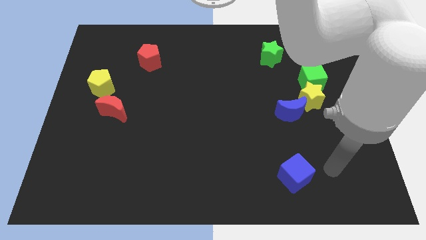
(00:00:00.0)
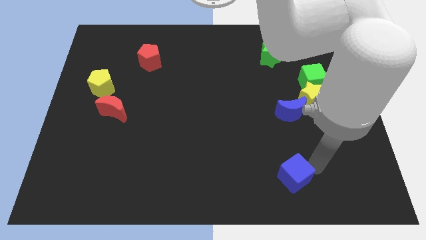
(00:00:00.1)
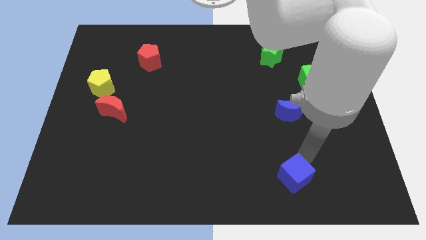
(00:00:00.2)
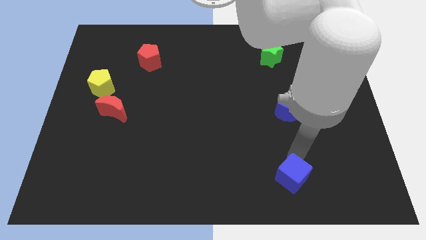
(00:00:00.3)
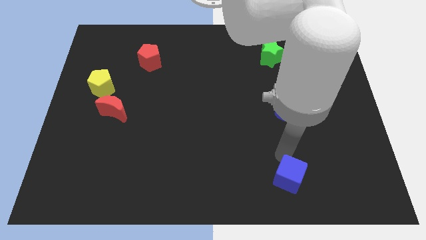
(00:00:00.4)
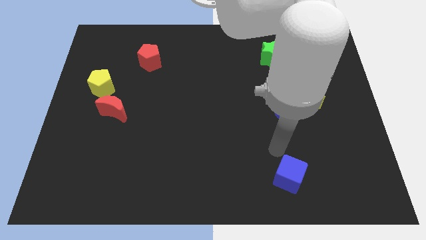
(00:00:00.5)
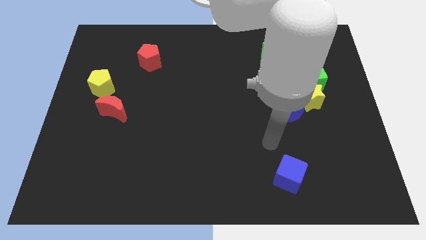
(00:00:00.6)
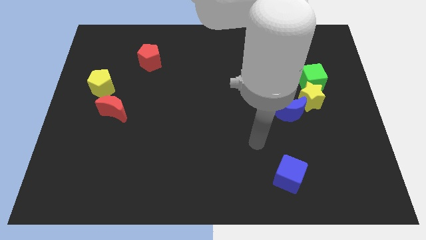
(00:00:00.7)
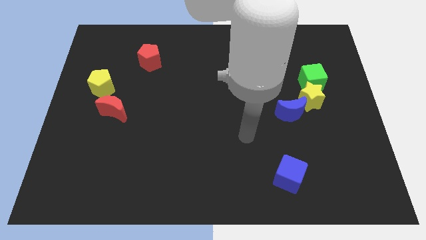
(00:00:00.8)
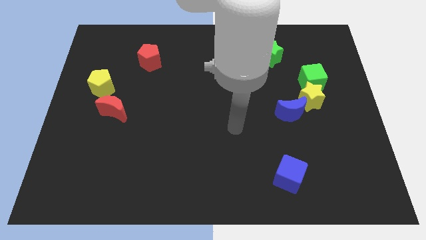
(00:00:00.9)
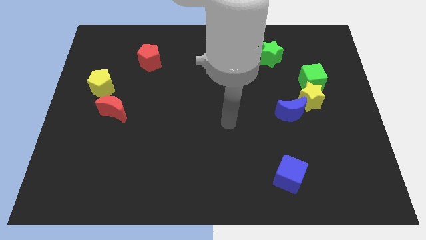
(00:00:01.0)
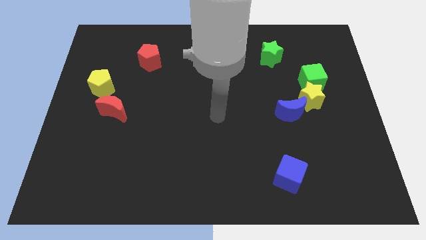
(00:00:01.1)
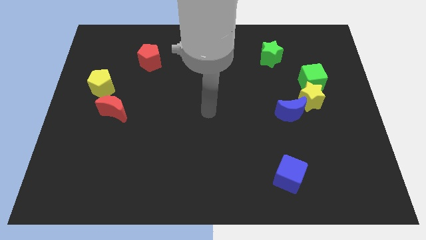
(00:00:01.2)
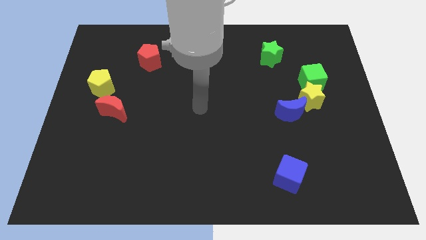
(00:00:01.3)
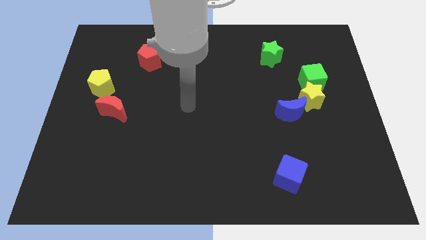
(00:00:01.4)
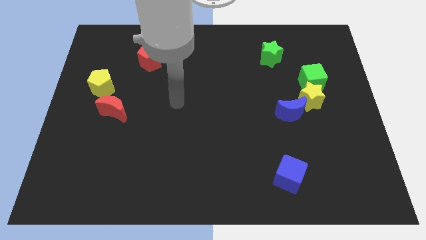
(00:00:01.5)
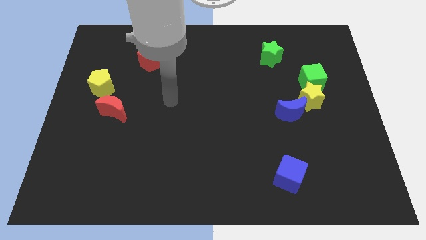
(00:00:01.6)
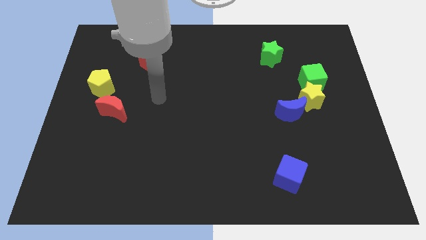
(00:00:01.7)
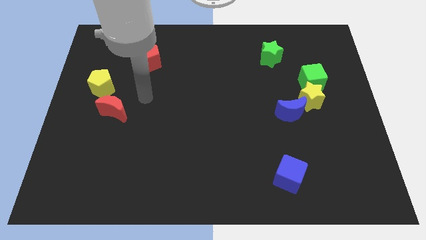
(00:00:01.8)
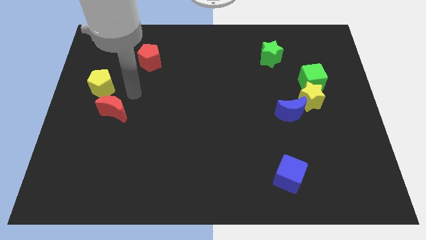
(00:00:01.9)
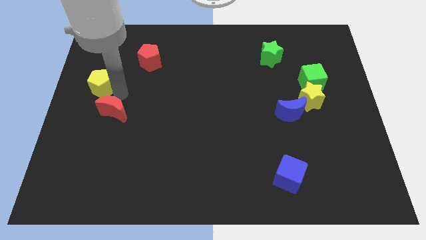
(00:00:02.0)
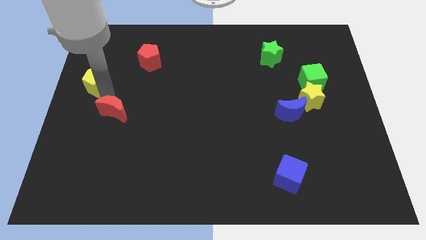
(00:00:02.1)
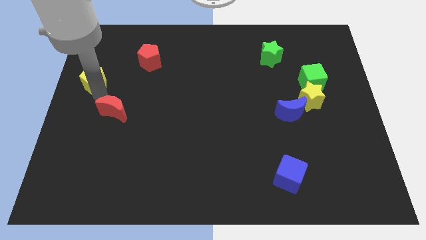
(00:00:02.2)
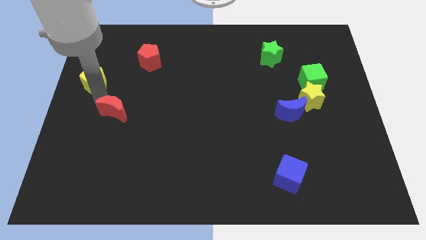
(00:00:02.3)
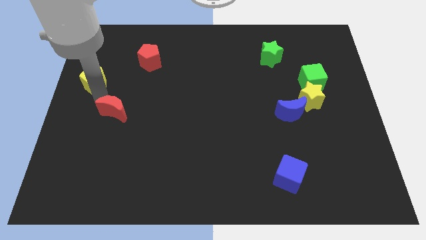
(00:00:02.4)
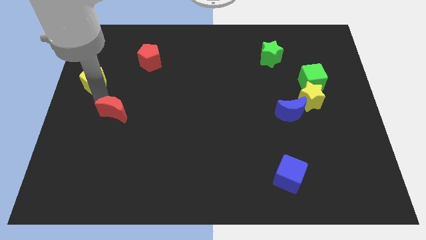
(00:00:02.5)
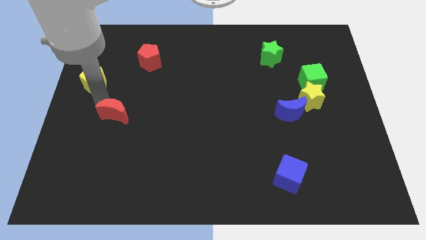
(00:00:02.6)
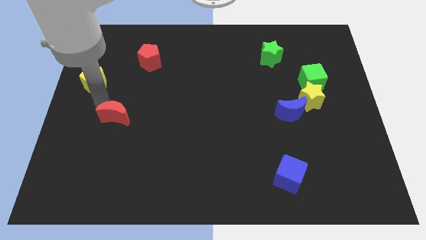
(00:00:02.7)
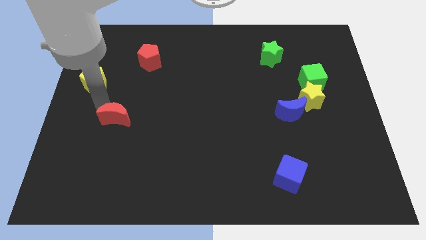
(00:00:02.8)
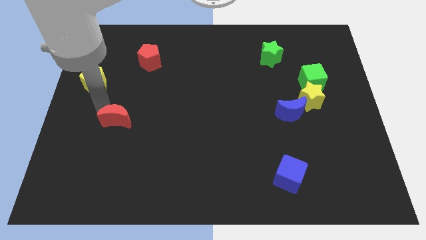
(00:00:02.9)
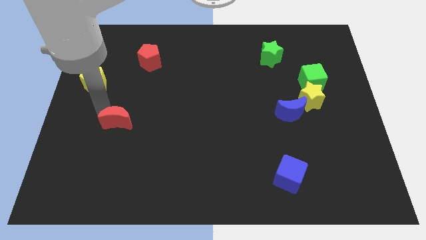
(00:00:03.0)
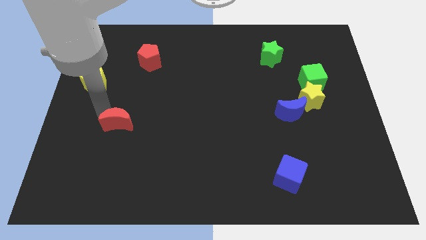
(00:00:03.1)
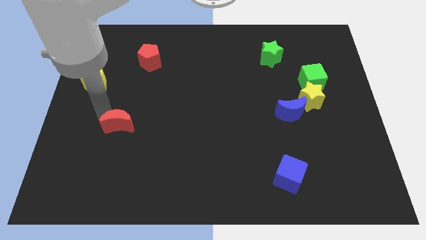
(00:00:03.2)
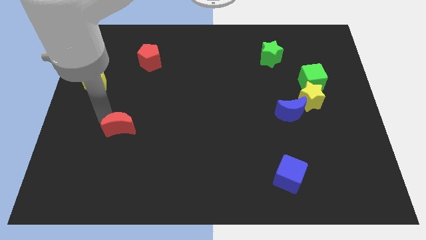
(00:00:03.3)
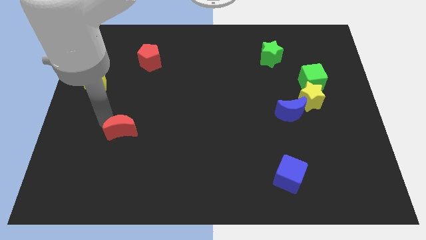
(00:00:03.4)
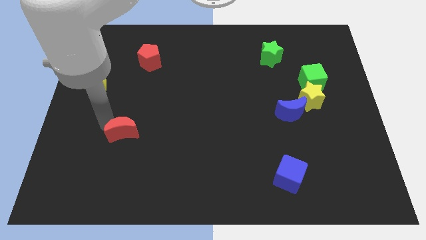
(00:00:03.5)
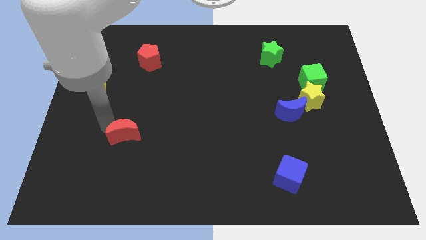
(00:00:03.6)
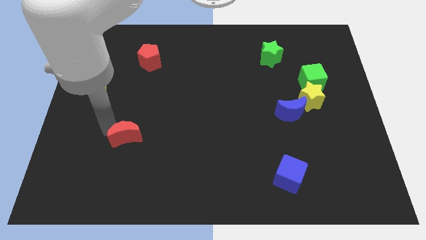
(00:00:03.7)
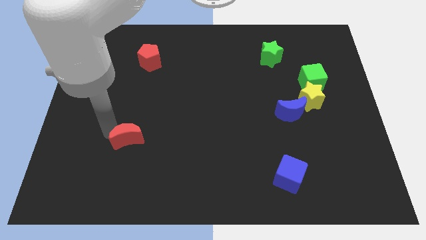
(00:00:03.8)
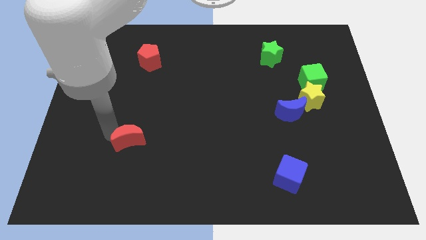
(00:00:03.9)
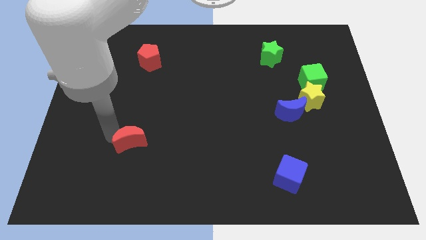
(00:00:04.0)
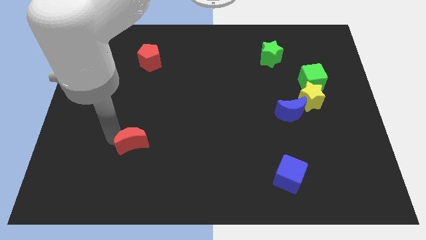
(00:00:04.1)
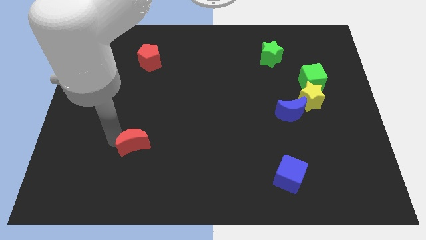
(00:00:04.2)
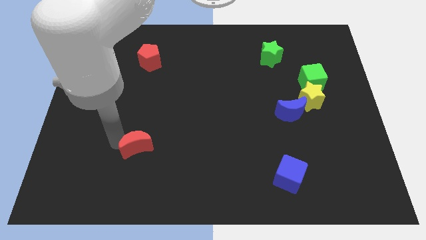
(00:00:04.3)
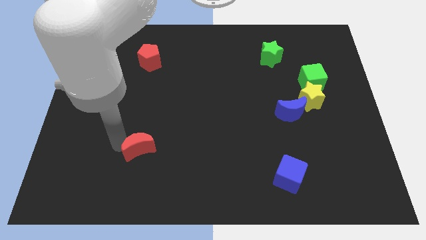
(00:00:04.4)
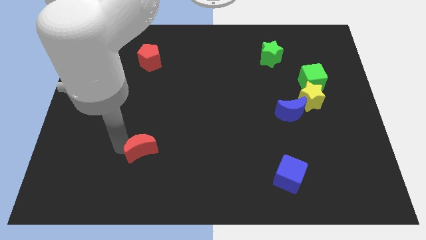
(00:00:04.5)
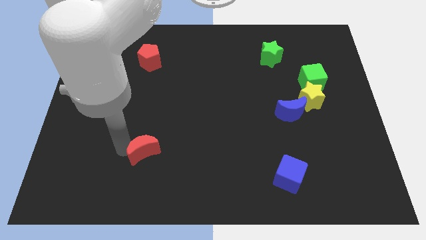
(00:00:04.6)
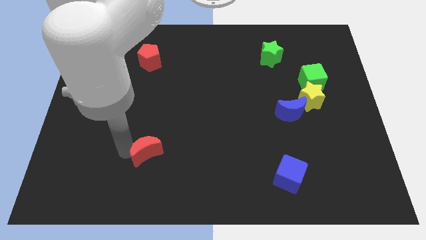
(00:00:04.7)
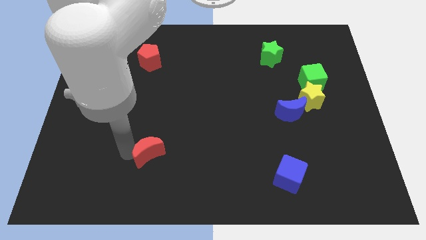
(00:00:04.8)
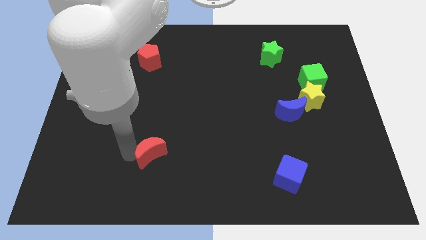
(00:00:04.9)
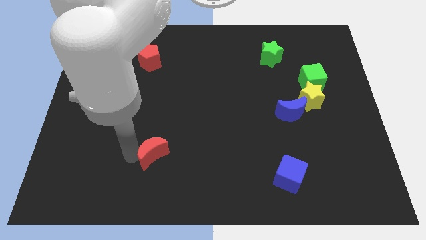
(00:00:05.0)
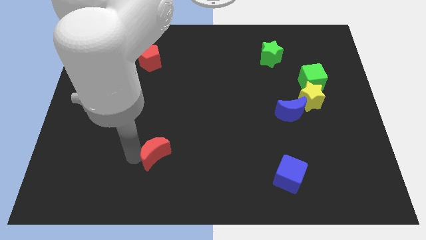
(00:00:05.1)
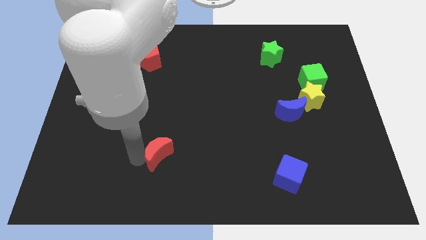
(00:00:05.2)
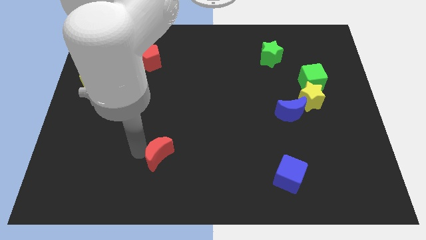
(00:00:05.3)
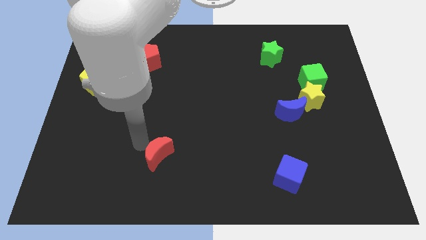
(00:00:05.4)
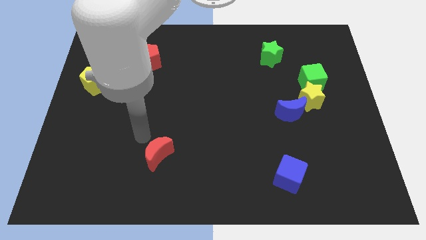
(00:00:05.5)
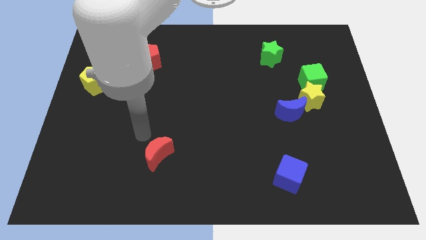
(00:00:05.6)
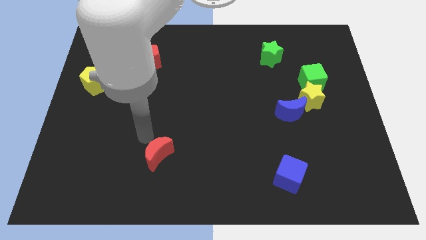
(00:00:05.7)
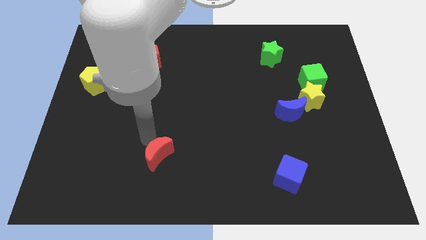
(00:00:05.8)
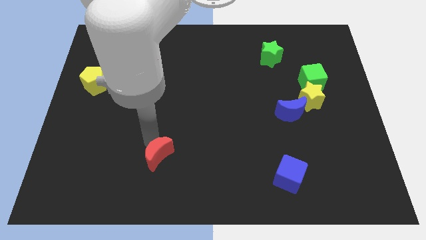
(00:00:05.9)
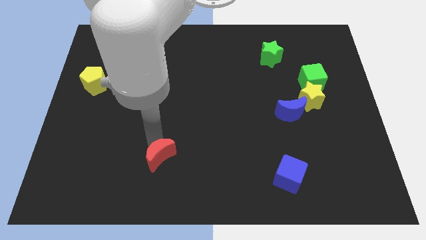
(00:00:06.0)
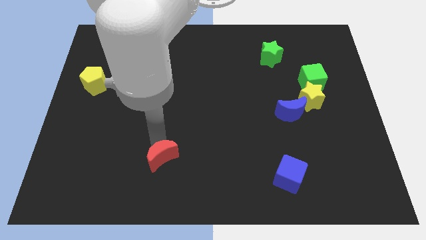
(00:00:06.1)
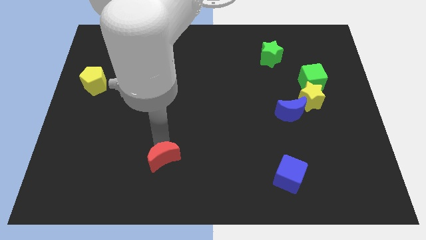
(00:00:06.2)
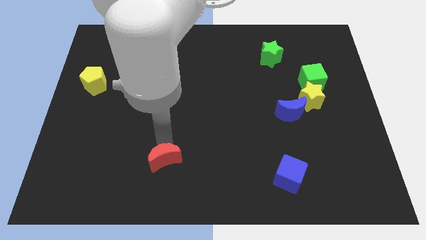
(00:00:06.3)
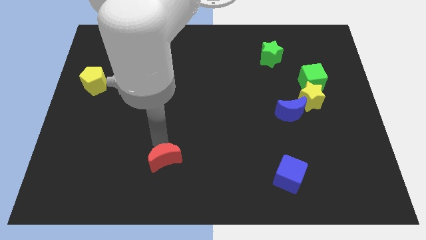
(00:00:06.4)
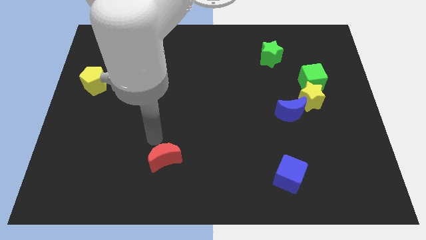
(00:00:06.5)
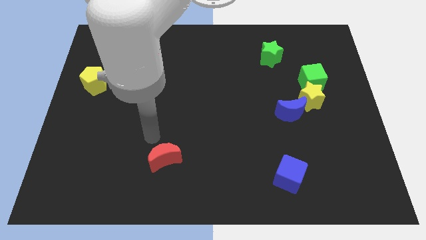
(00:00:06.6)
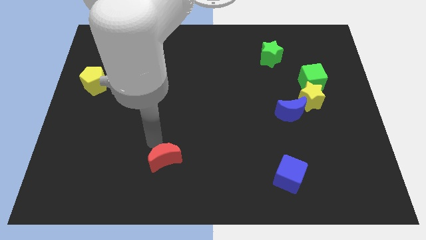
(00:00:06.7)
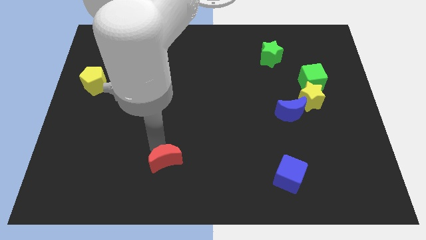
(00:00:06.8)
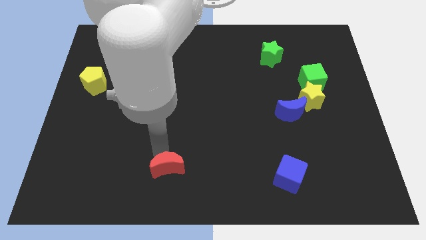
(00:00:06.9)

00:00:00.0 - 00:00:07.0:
push the red moon to the bottom side
